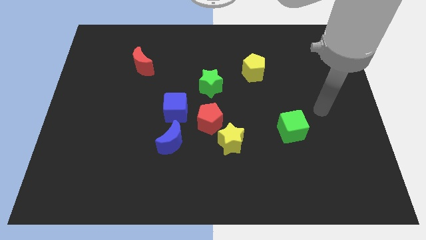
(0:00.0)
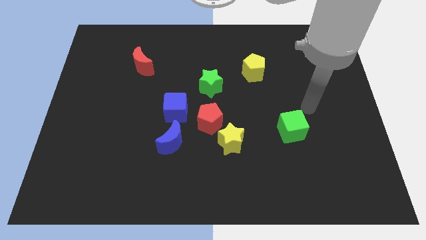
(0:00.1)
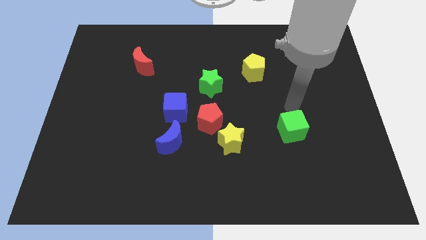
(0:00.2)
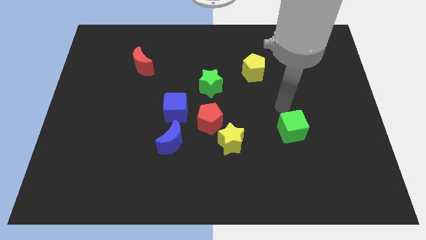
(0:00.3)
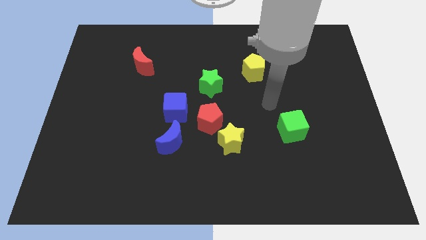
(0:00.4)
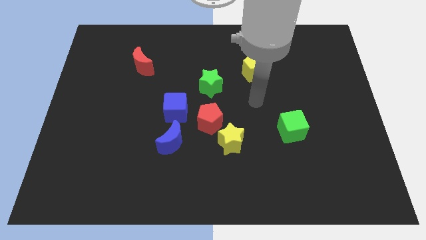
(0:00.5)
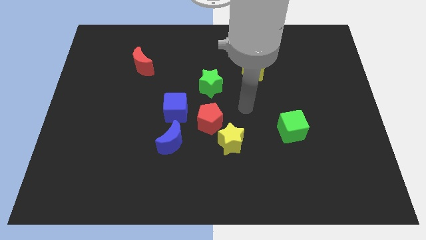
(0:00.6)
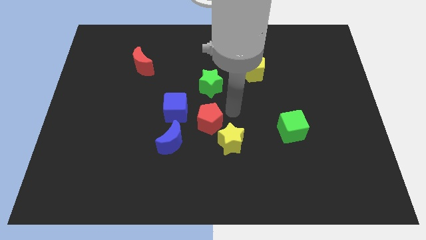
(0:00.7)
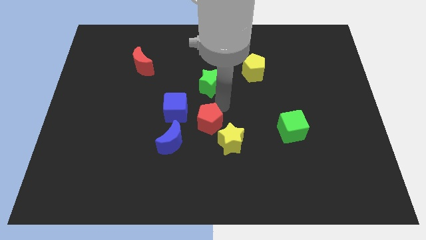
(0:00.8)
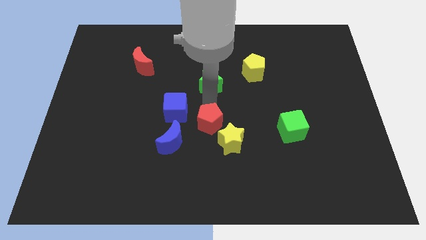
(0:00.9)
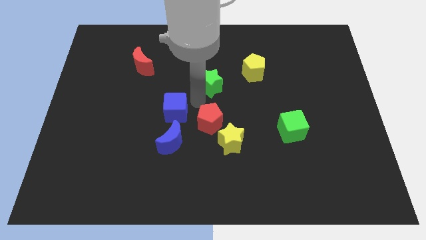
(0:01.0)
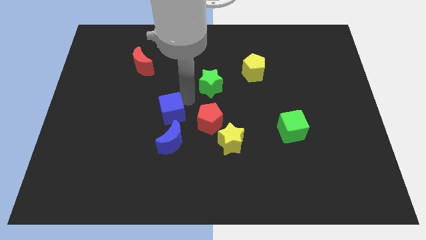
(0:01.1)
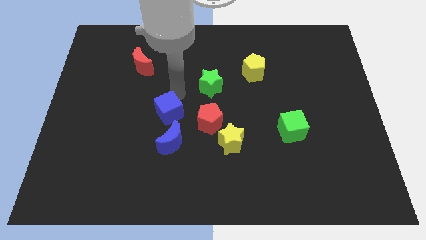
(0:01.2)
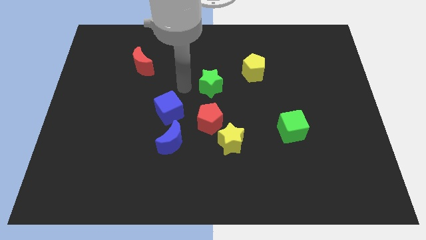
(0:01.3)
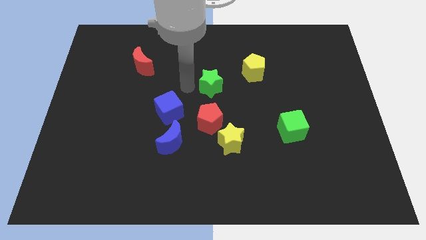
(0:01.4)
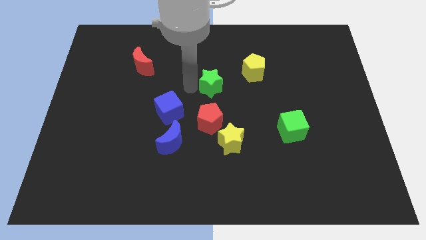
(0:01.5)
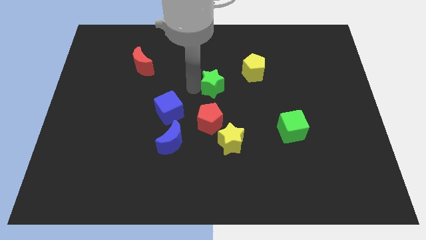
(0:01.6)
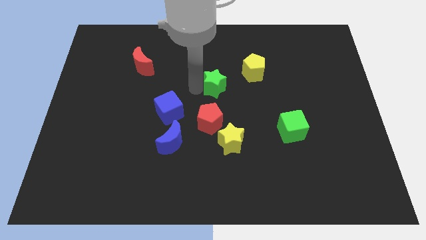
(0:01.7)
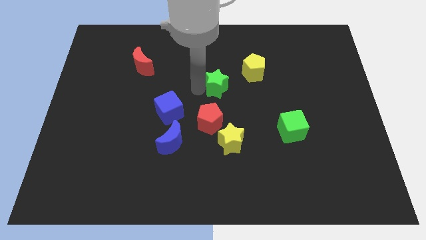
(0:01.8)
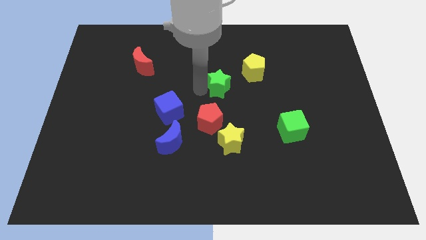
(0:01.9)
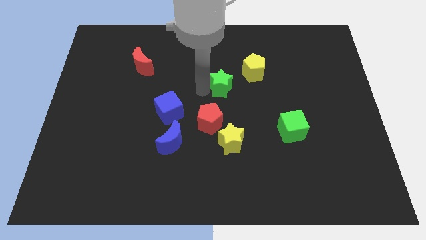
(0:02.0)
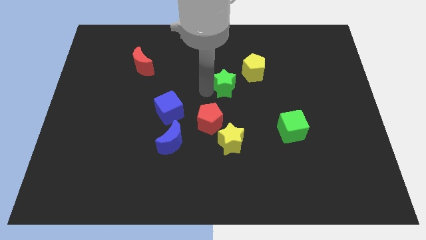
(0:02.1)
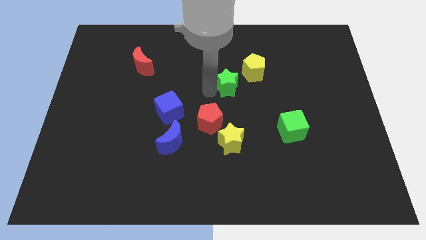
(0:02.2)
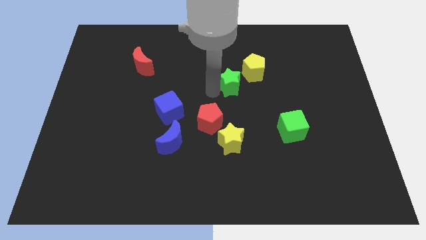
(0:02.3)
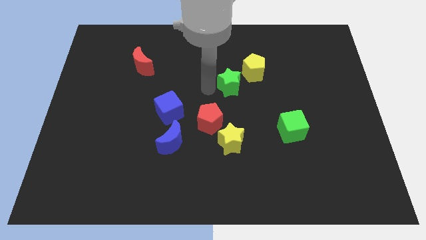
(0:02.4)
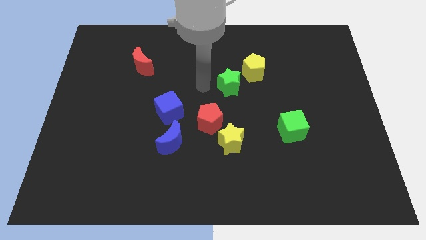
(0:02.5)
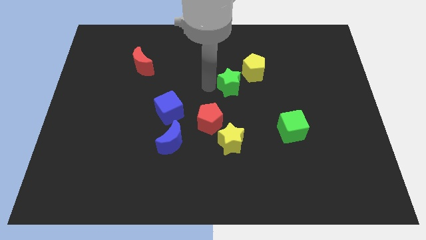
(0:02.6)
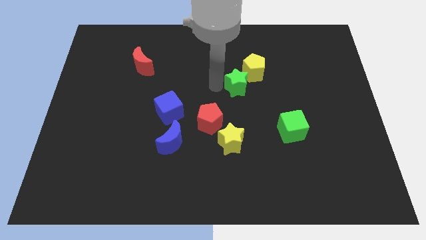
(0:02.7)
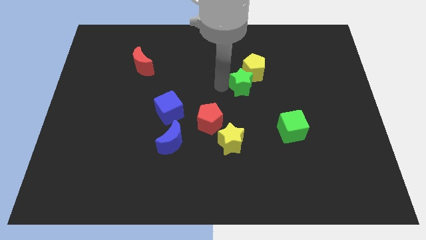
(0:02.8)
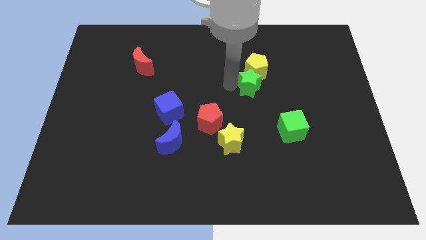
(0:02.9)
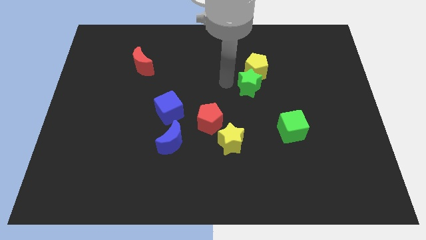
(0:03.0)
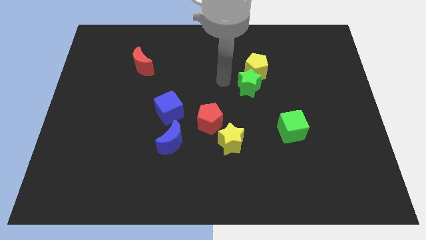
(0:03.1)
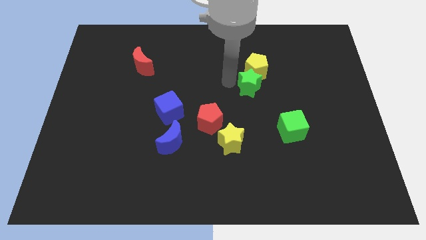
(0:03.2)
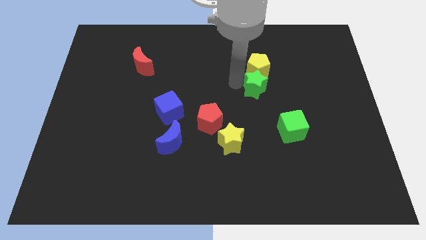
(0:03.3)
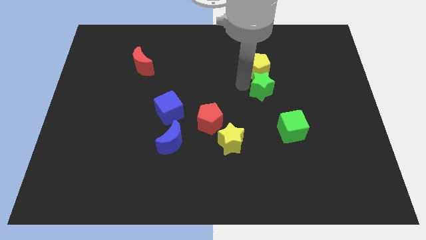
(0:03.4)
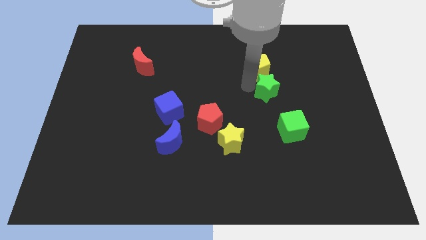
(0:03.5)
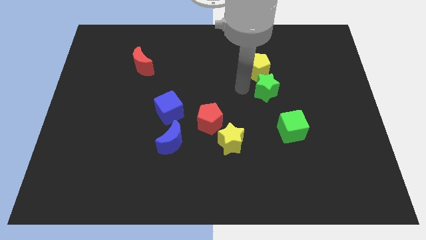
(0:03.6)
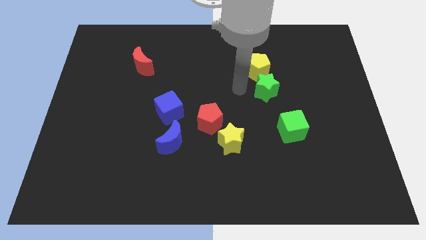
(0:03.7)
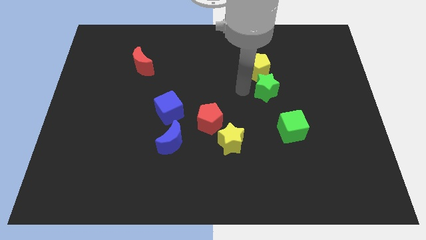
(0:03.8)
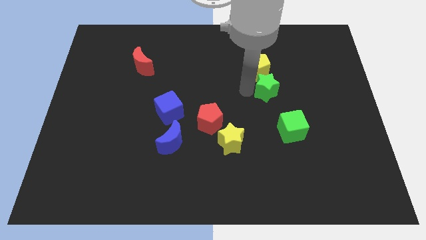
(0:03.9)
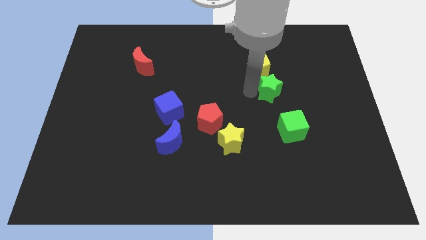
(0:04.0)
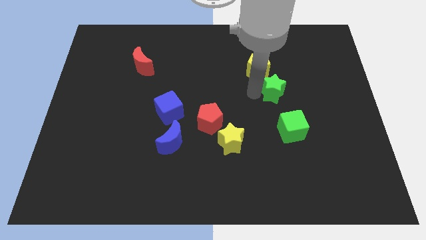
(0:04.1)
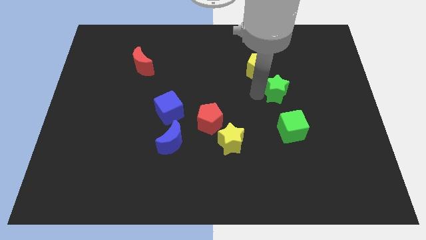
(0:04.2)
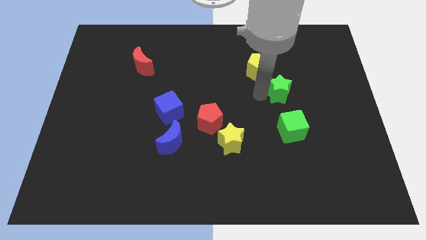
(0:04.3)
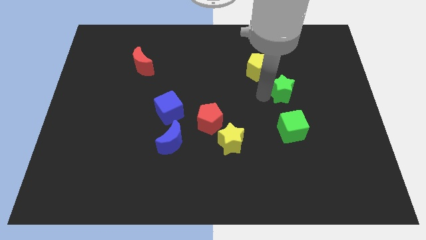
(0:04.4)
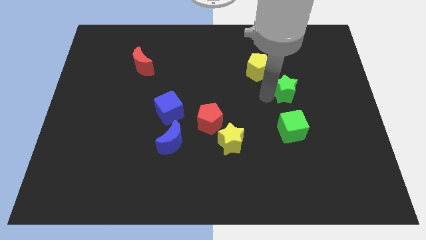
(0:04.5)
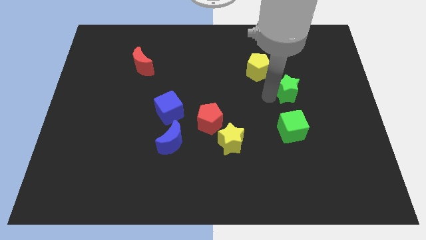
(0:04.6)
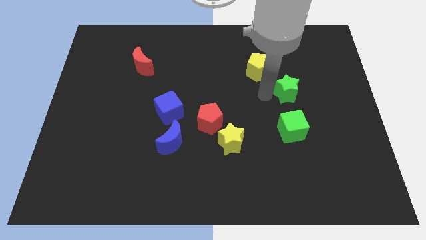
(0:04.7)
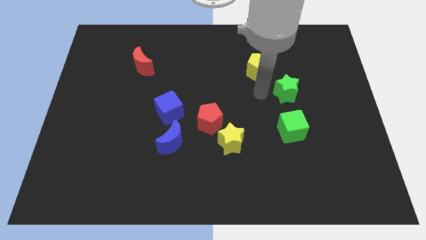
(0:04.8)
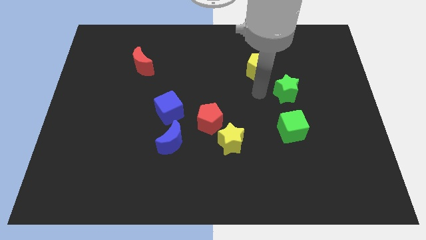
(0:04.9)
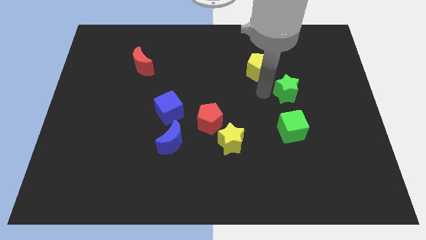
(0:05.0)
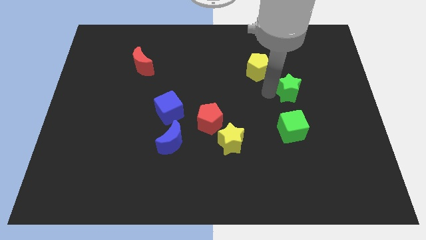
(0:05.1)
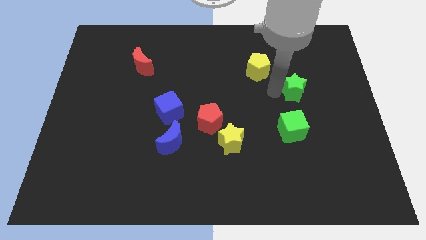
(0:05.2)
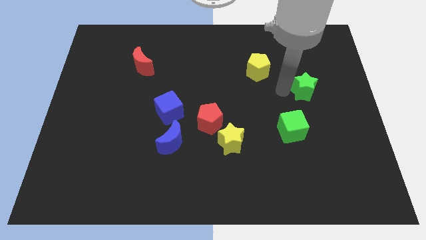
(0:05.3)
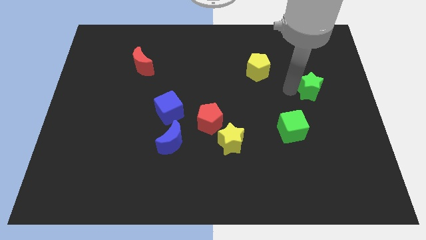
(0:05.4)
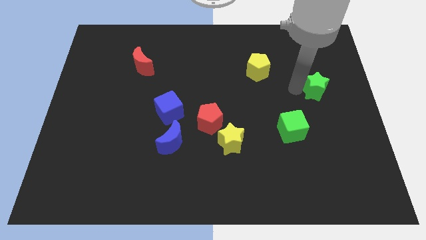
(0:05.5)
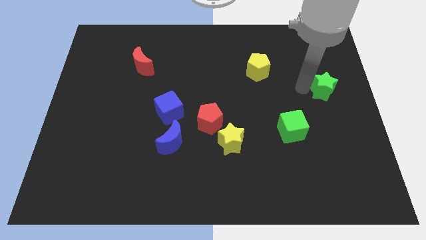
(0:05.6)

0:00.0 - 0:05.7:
slide the green star to the center right

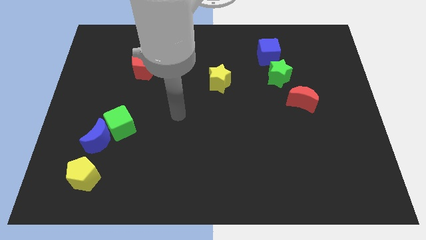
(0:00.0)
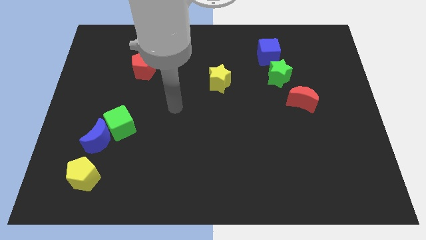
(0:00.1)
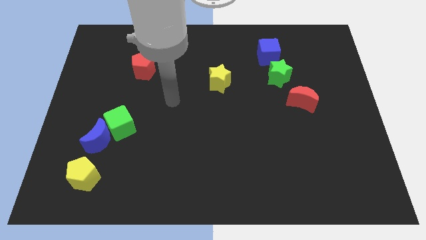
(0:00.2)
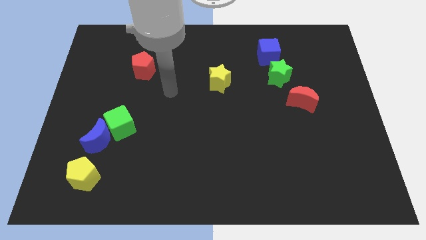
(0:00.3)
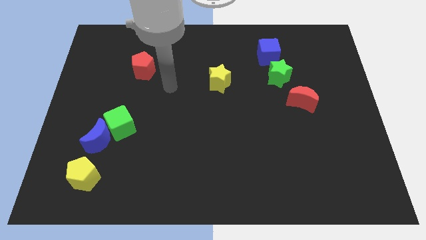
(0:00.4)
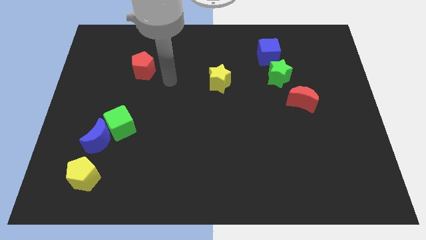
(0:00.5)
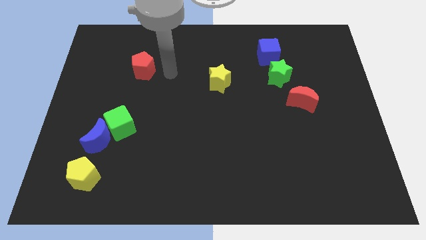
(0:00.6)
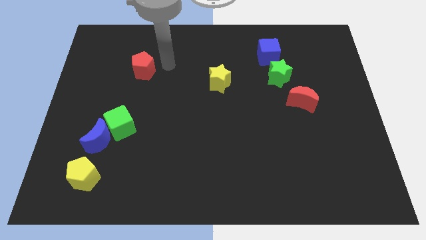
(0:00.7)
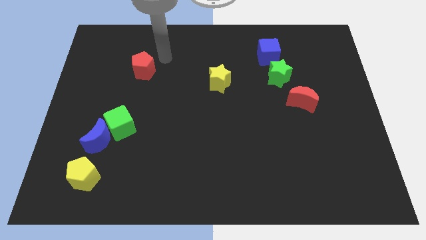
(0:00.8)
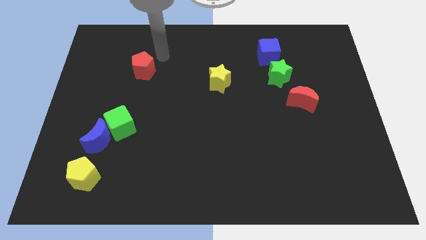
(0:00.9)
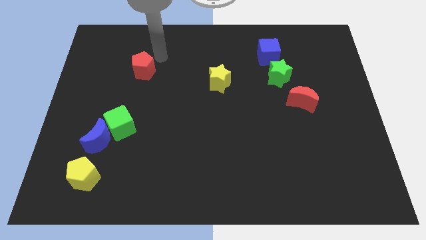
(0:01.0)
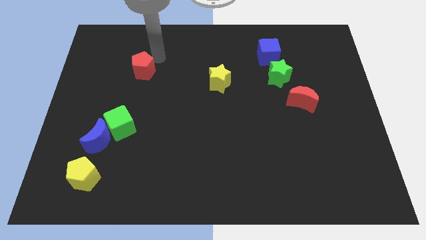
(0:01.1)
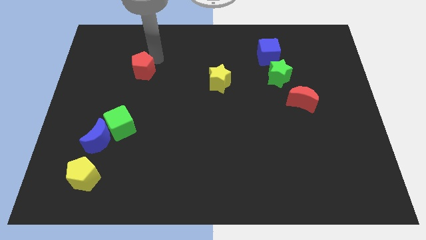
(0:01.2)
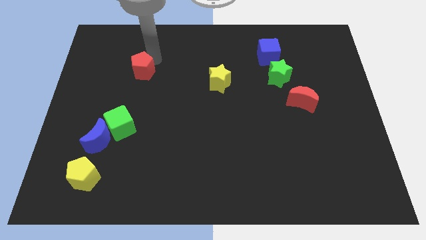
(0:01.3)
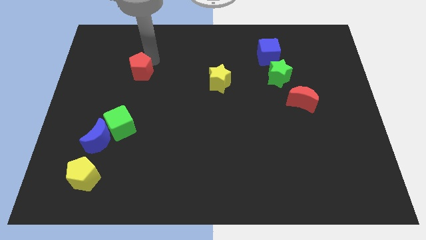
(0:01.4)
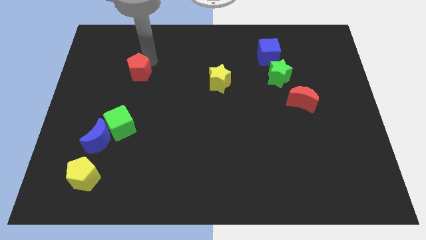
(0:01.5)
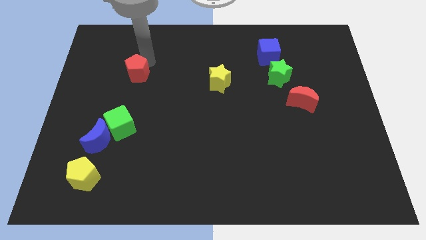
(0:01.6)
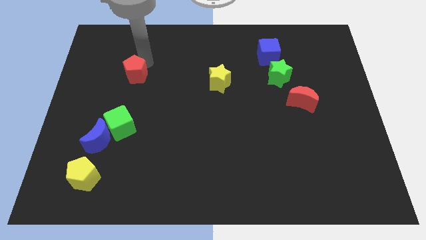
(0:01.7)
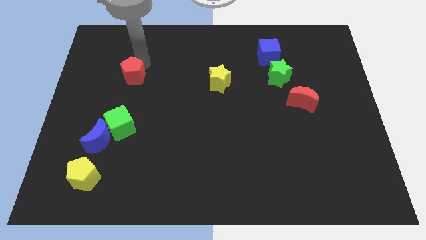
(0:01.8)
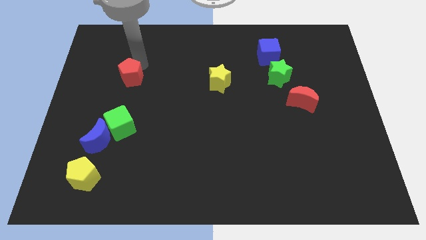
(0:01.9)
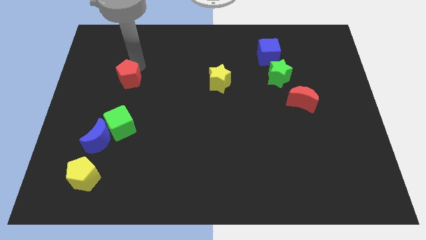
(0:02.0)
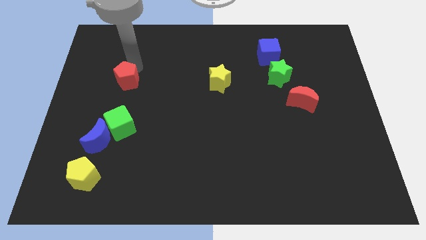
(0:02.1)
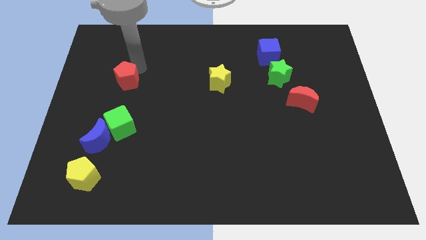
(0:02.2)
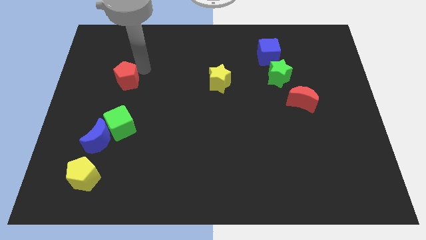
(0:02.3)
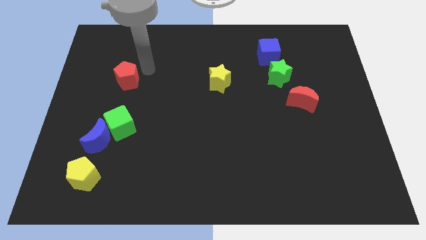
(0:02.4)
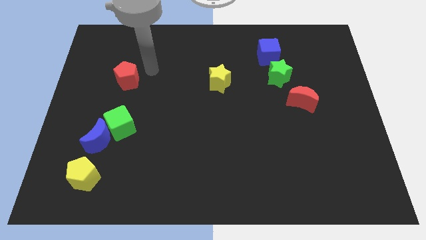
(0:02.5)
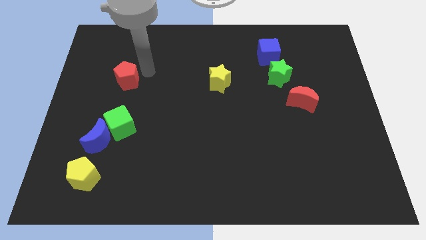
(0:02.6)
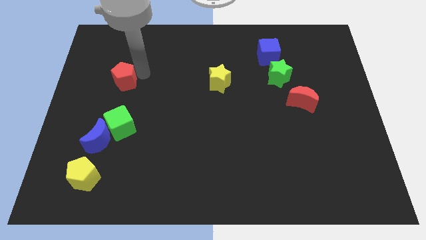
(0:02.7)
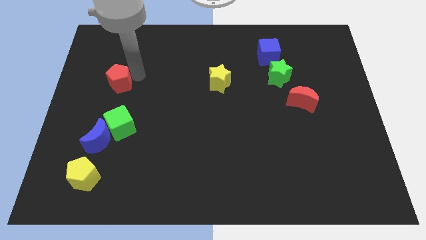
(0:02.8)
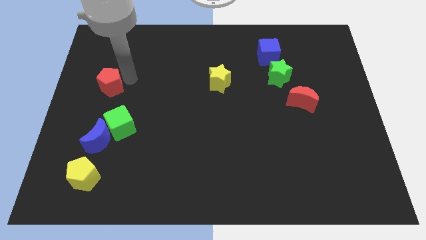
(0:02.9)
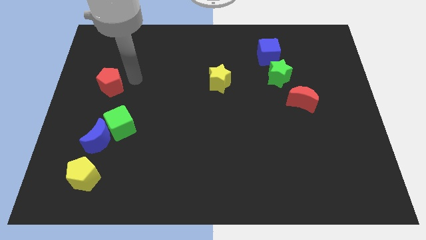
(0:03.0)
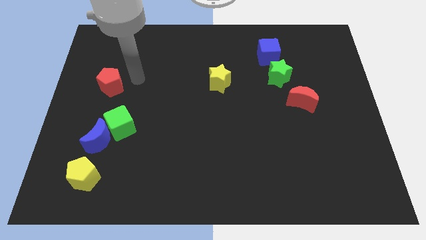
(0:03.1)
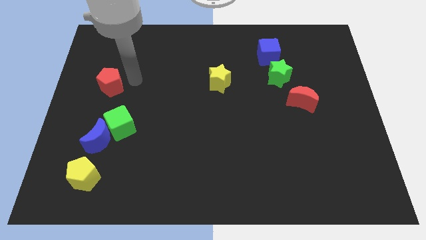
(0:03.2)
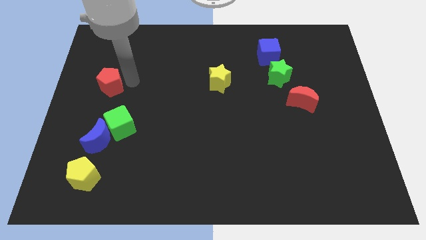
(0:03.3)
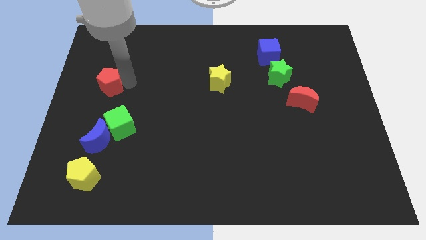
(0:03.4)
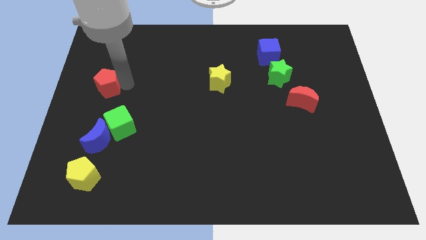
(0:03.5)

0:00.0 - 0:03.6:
put the red pentagon to the left side
